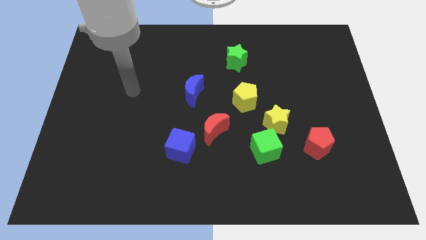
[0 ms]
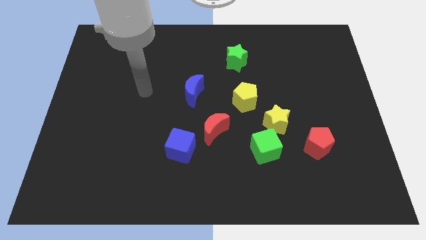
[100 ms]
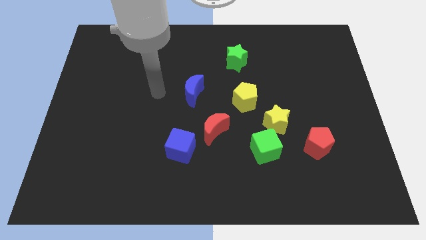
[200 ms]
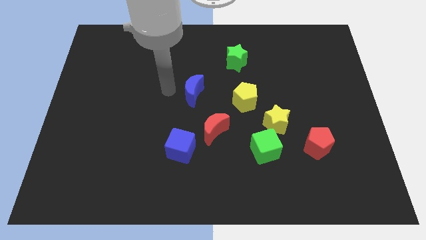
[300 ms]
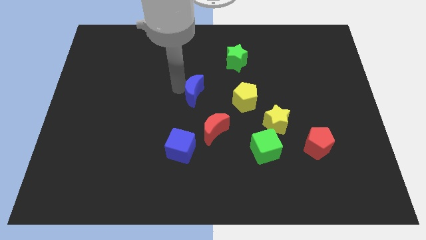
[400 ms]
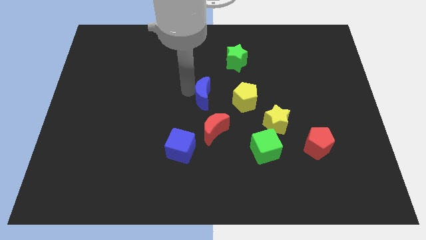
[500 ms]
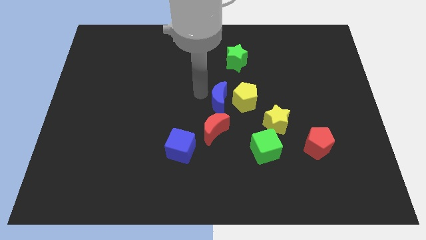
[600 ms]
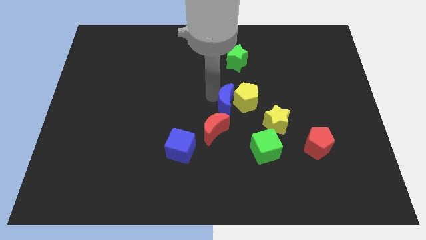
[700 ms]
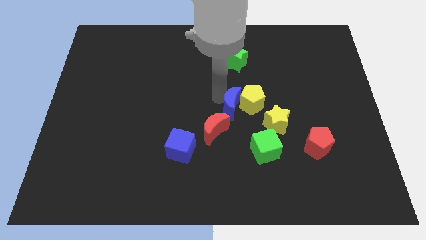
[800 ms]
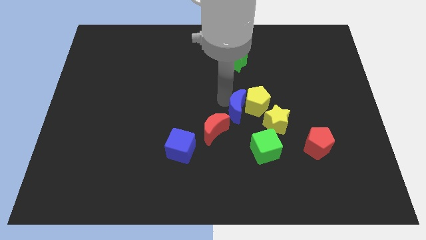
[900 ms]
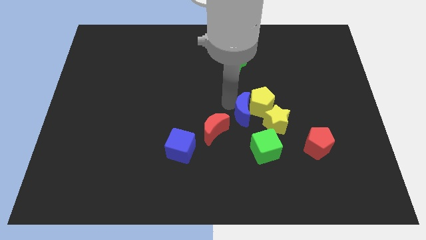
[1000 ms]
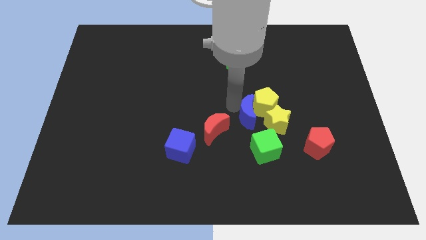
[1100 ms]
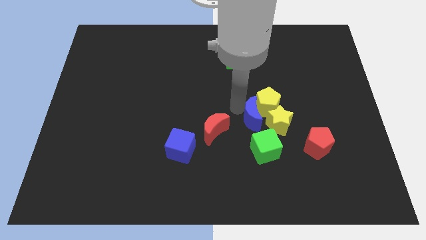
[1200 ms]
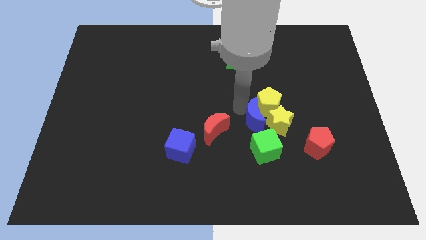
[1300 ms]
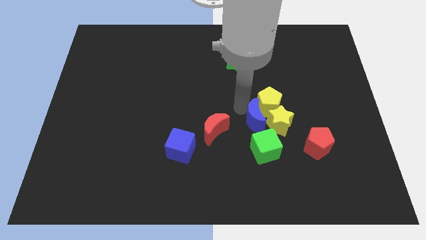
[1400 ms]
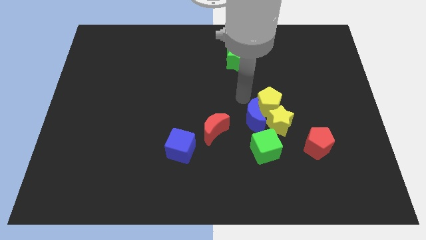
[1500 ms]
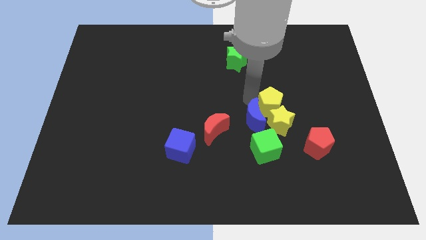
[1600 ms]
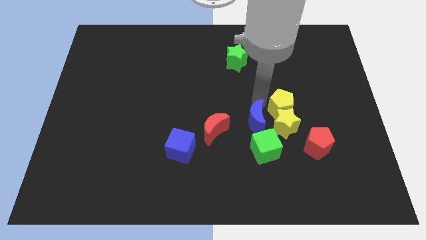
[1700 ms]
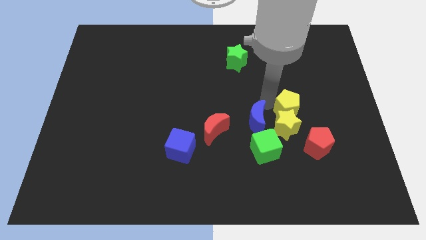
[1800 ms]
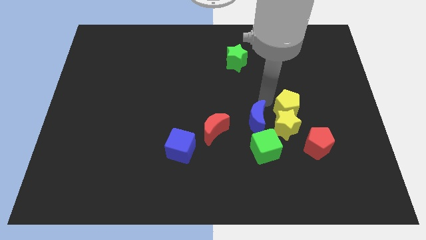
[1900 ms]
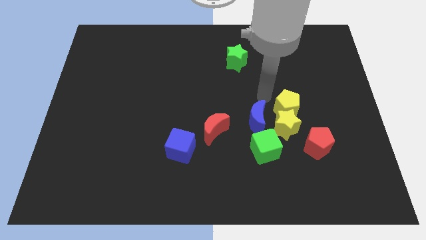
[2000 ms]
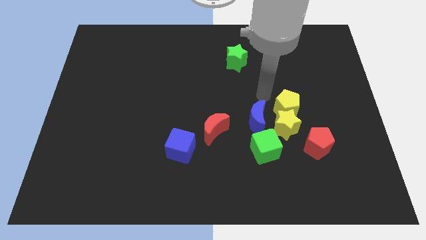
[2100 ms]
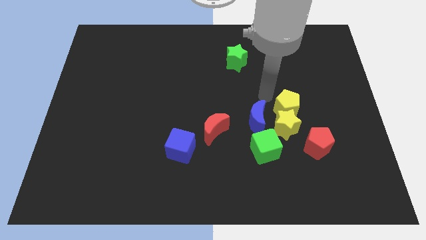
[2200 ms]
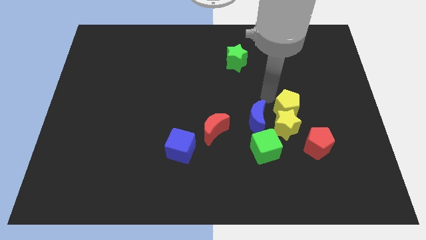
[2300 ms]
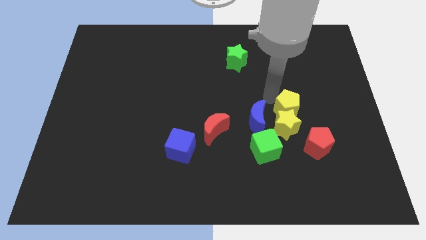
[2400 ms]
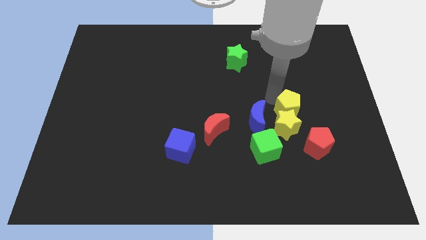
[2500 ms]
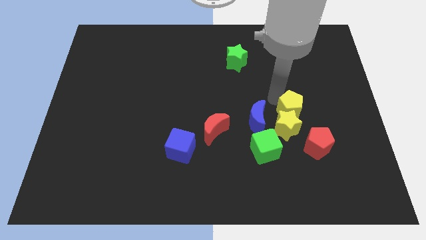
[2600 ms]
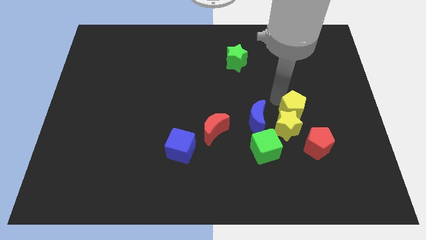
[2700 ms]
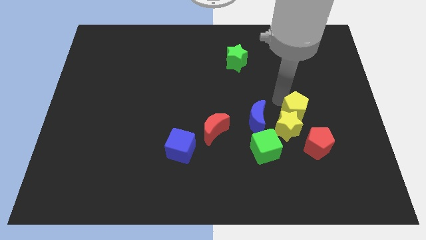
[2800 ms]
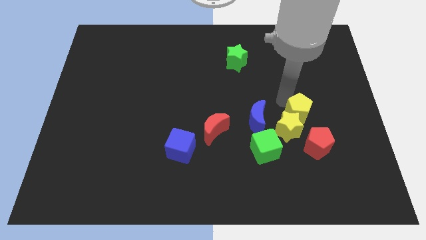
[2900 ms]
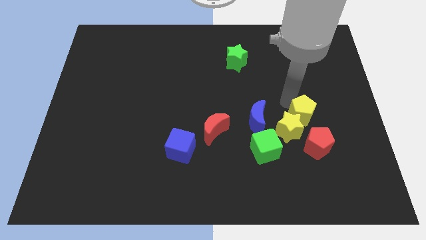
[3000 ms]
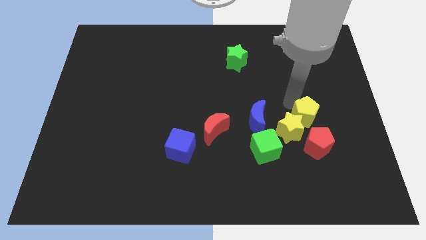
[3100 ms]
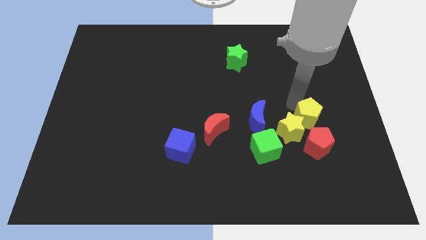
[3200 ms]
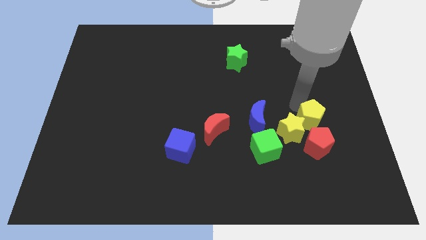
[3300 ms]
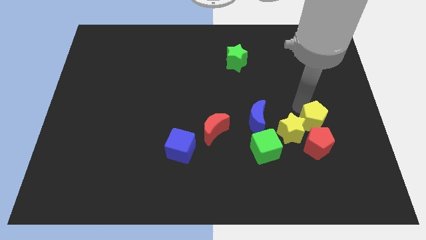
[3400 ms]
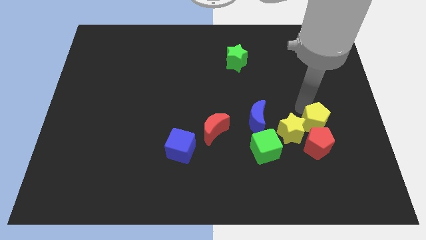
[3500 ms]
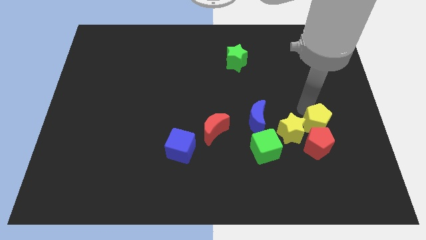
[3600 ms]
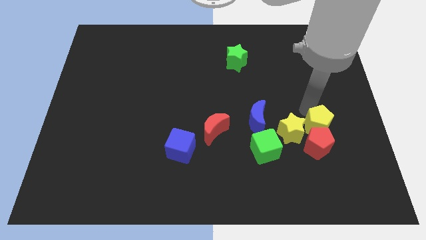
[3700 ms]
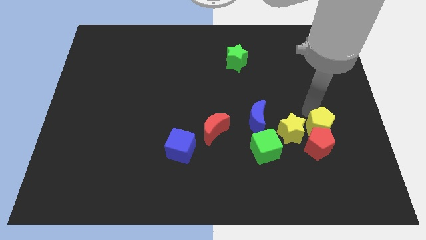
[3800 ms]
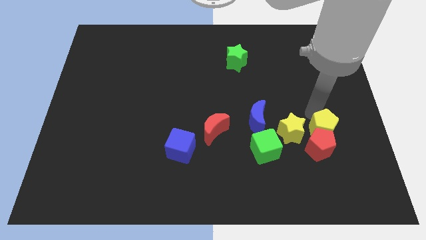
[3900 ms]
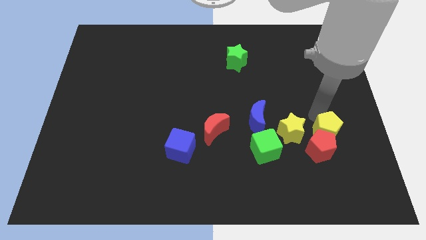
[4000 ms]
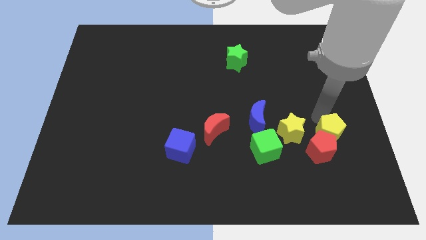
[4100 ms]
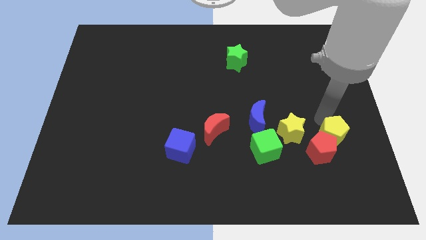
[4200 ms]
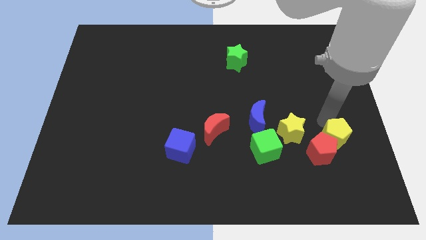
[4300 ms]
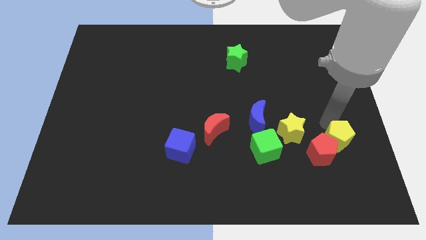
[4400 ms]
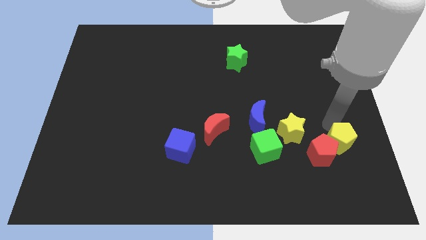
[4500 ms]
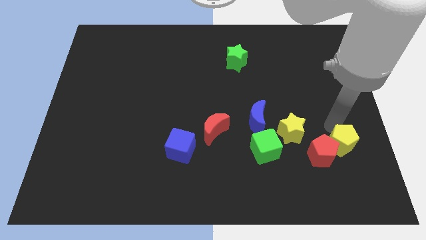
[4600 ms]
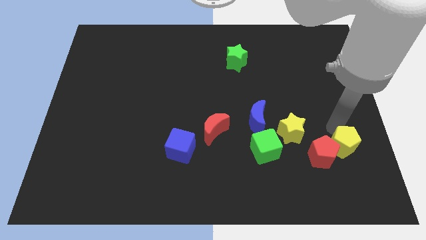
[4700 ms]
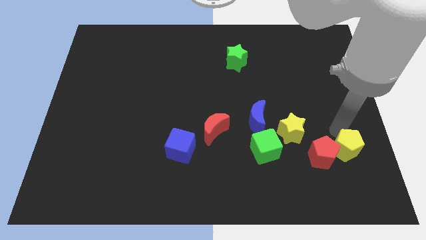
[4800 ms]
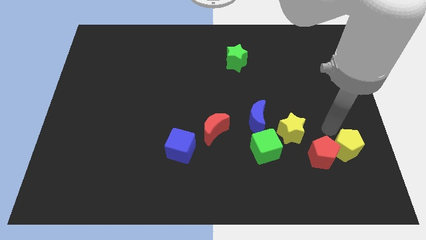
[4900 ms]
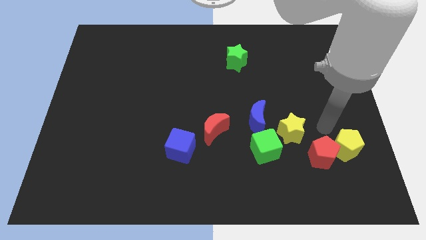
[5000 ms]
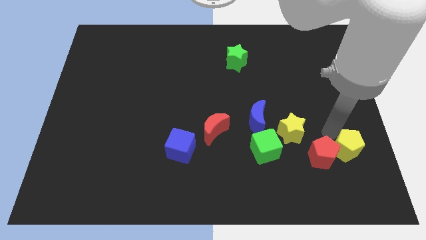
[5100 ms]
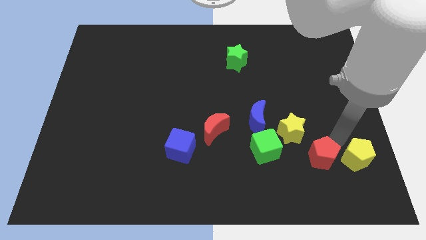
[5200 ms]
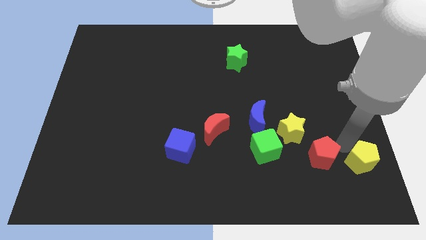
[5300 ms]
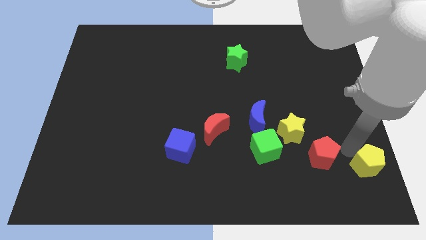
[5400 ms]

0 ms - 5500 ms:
slide the yellow pentagon to the bottom right of the board

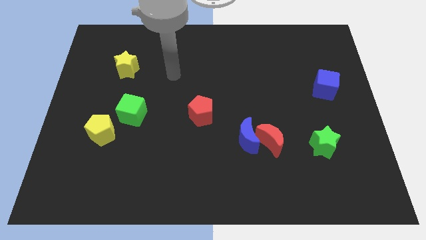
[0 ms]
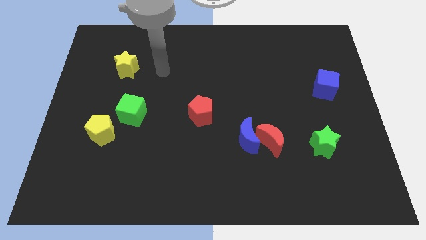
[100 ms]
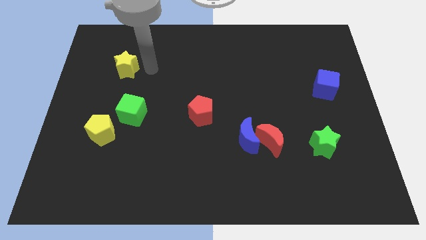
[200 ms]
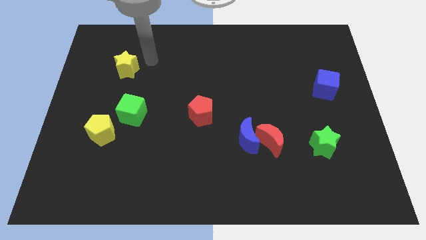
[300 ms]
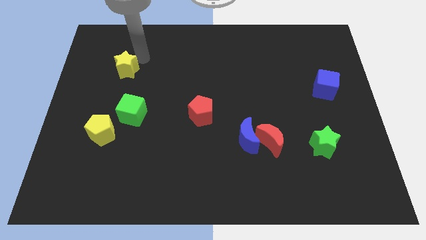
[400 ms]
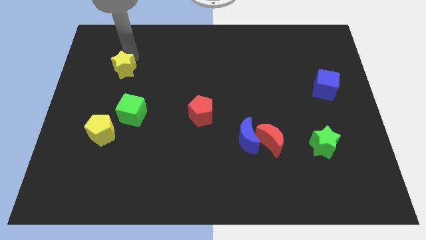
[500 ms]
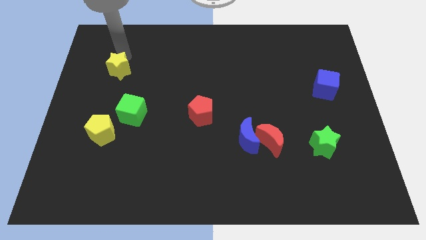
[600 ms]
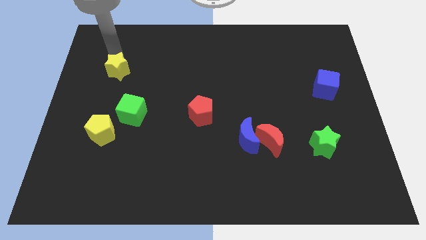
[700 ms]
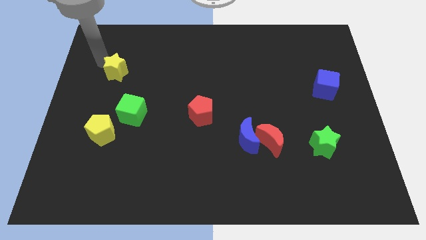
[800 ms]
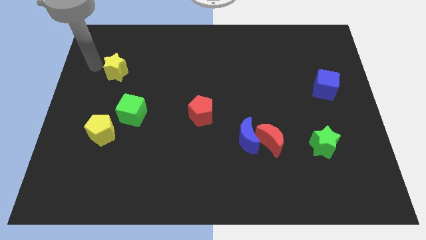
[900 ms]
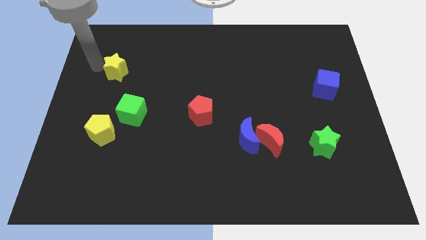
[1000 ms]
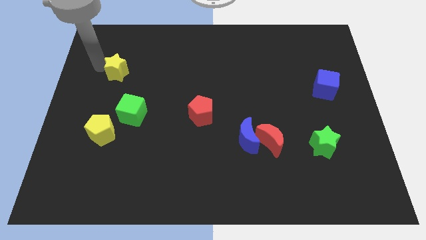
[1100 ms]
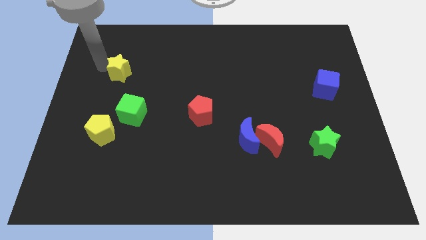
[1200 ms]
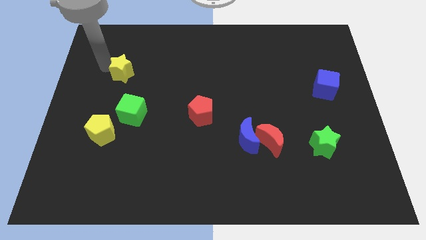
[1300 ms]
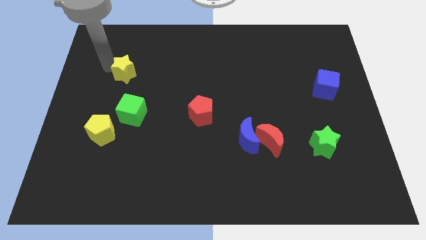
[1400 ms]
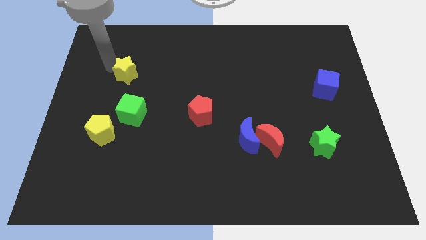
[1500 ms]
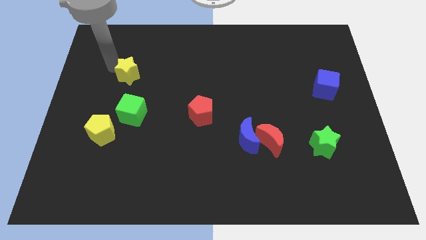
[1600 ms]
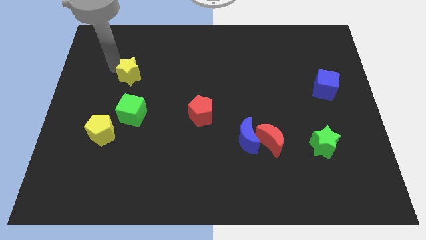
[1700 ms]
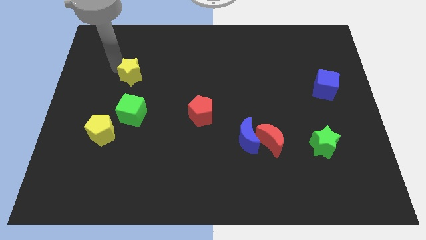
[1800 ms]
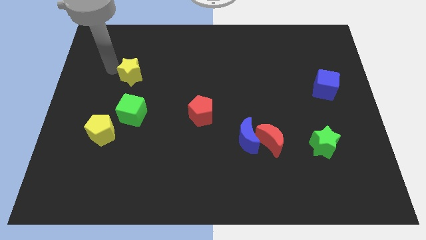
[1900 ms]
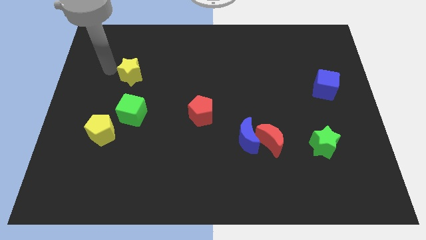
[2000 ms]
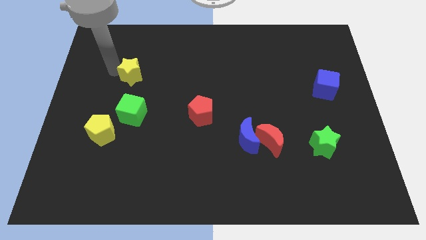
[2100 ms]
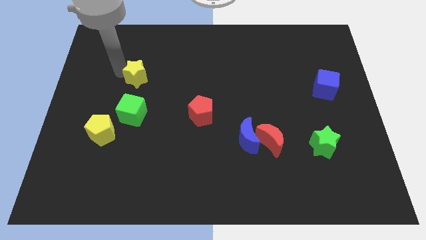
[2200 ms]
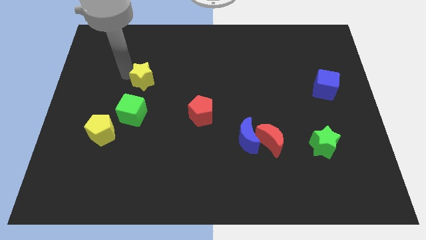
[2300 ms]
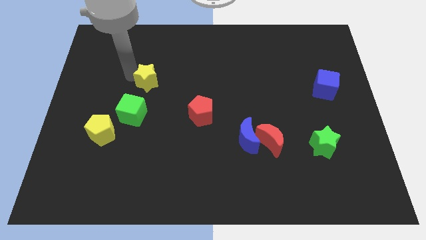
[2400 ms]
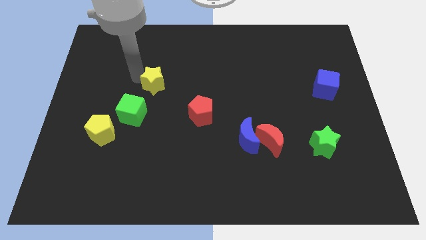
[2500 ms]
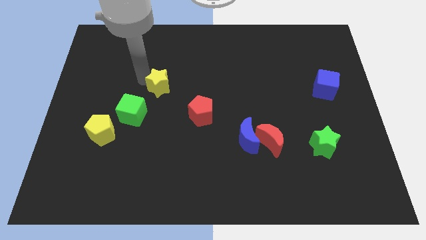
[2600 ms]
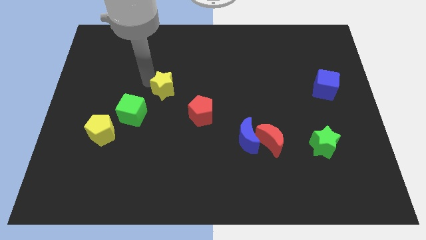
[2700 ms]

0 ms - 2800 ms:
put the yellow star to the middle of the board

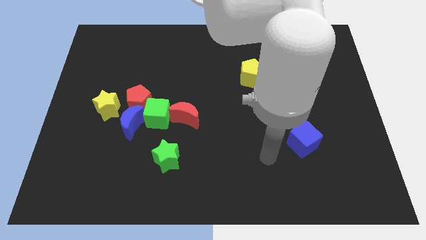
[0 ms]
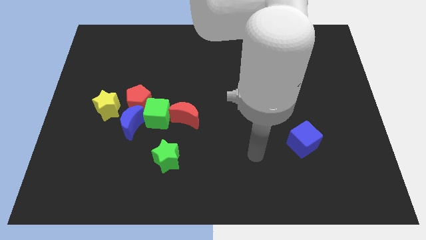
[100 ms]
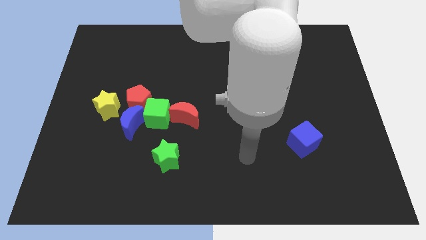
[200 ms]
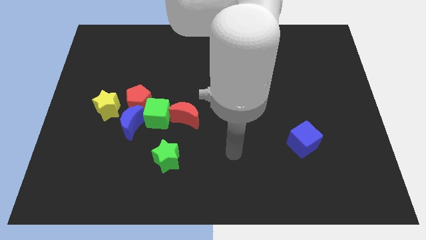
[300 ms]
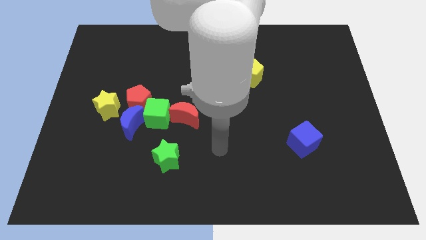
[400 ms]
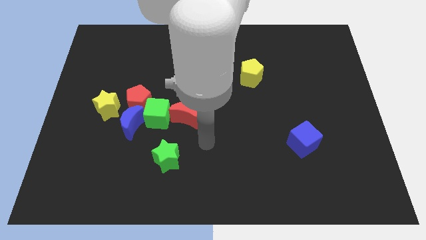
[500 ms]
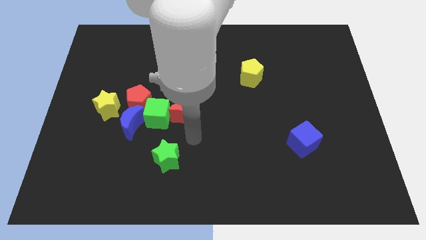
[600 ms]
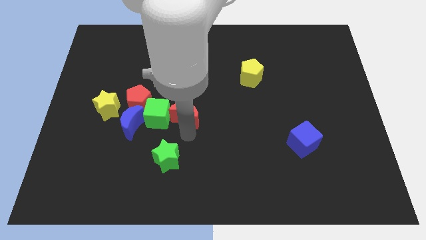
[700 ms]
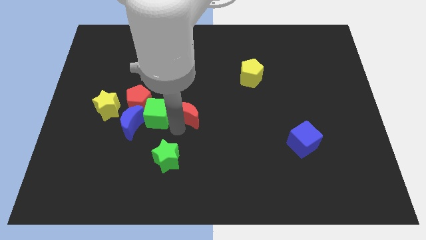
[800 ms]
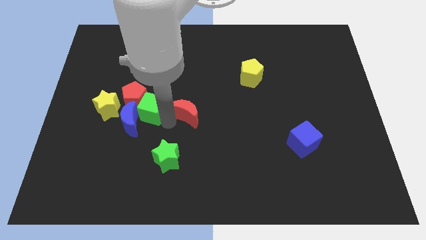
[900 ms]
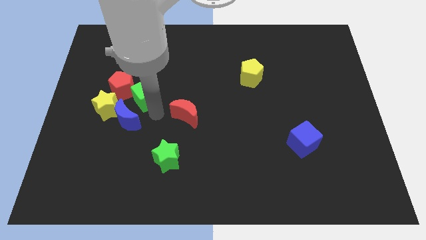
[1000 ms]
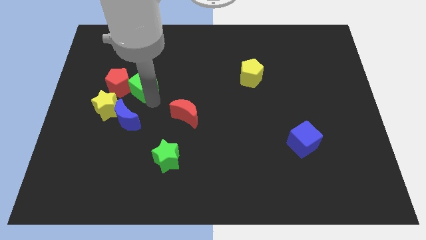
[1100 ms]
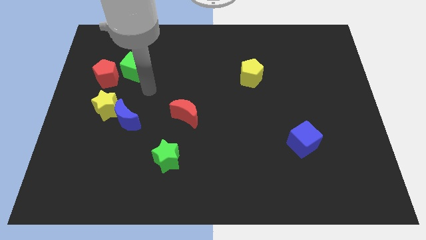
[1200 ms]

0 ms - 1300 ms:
put the red pentagon to the left side of the board
